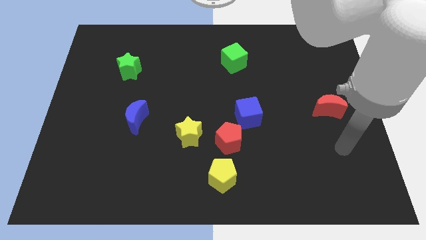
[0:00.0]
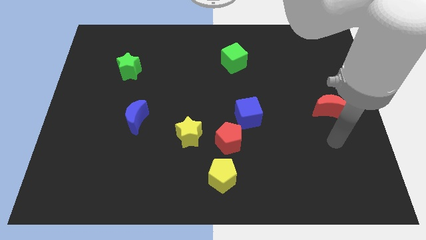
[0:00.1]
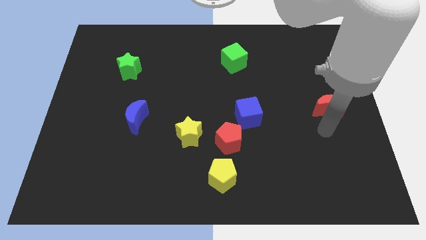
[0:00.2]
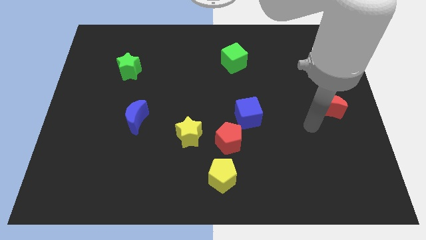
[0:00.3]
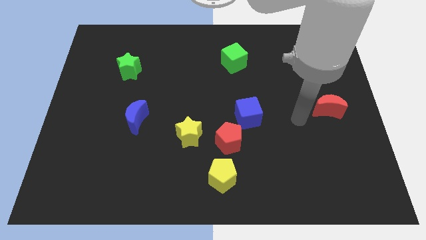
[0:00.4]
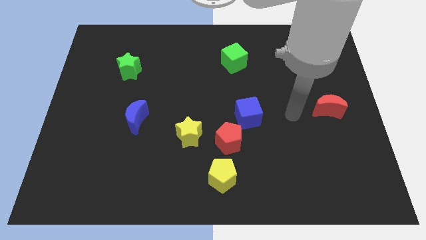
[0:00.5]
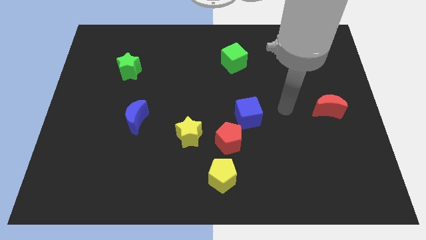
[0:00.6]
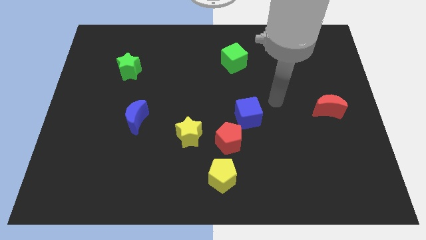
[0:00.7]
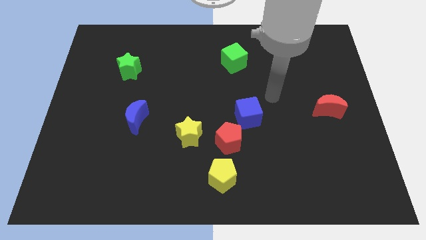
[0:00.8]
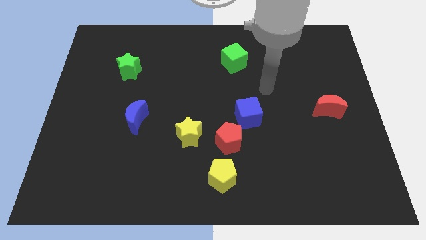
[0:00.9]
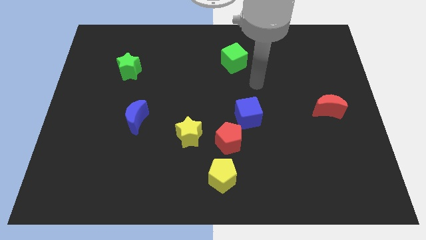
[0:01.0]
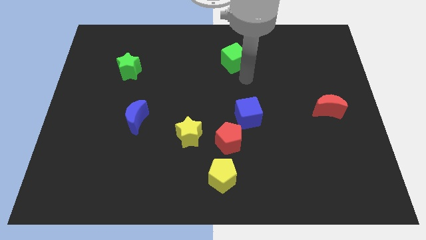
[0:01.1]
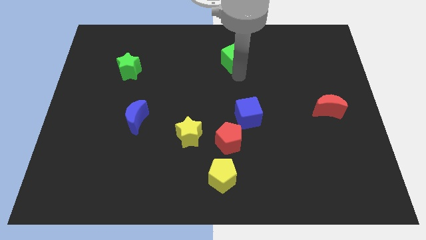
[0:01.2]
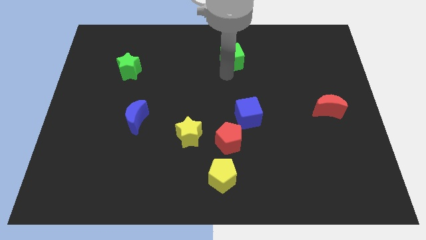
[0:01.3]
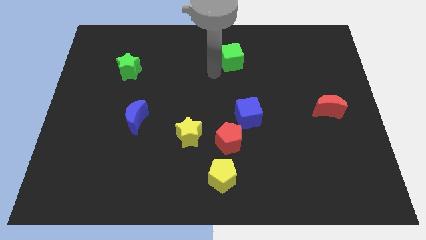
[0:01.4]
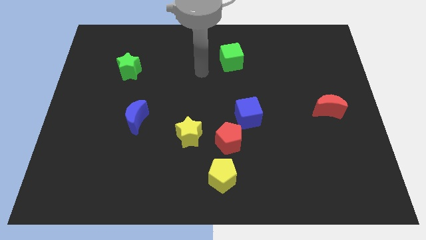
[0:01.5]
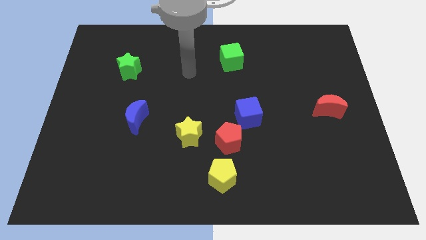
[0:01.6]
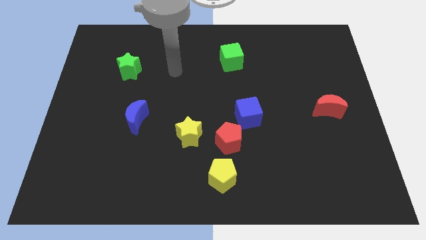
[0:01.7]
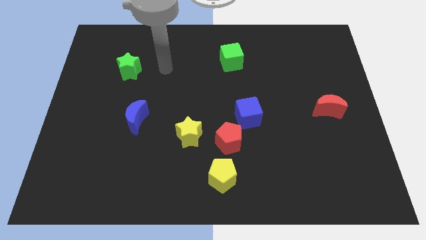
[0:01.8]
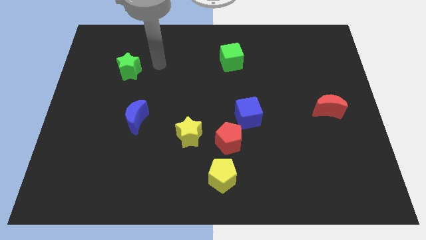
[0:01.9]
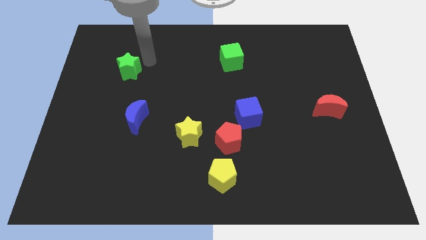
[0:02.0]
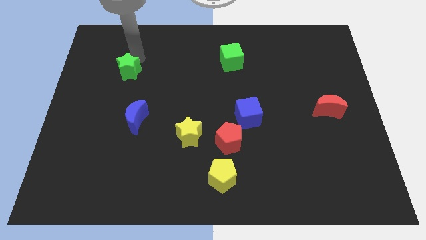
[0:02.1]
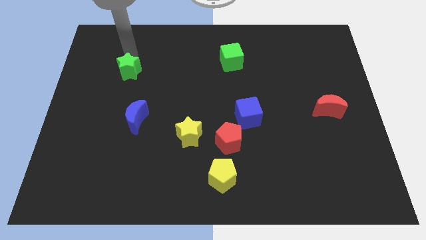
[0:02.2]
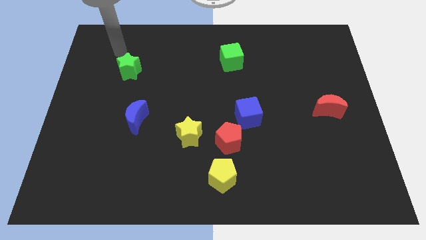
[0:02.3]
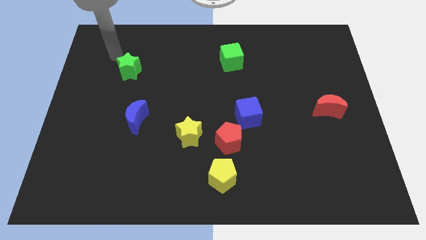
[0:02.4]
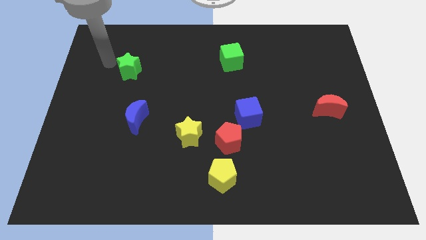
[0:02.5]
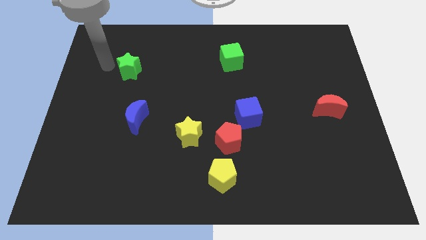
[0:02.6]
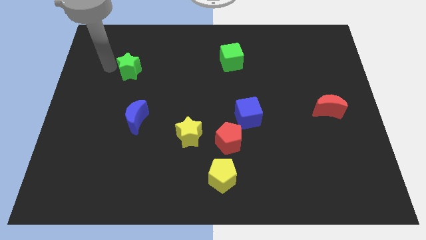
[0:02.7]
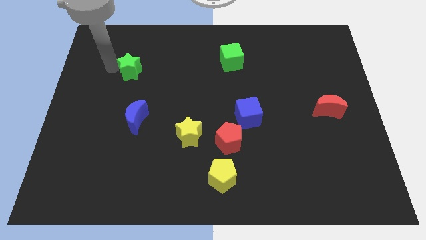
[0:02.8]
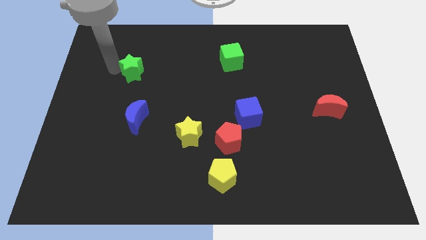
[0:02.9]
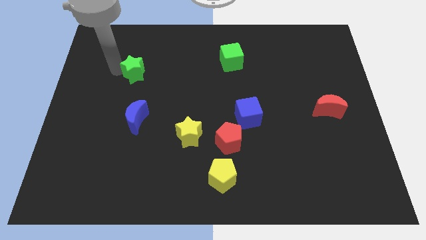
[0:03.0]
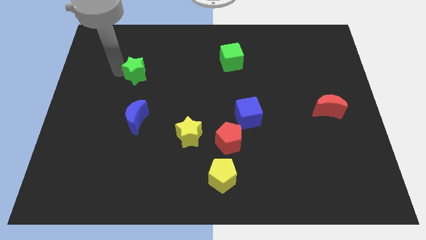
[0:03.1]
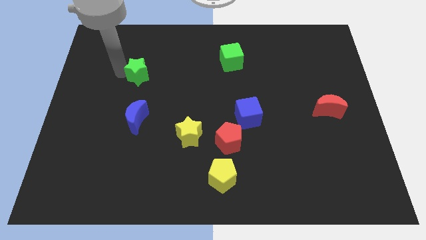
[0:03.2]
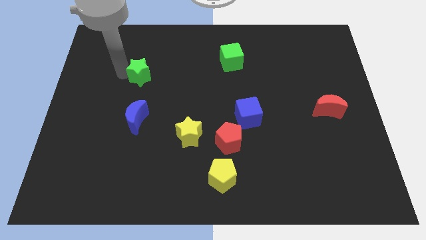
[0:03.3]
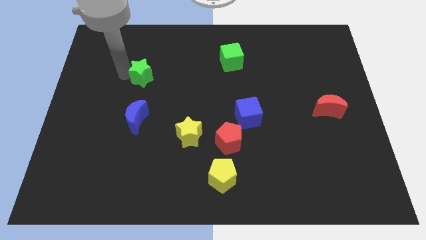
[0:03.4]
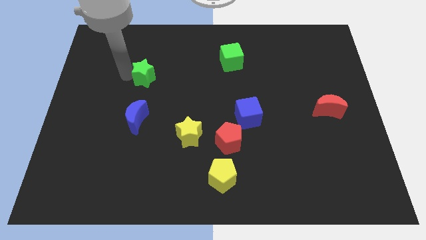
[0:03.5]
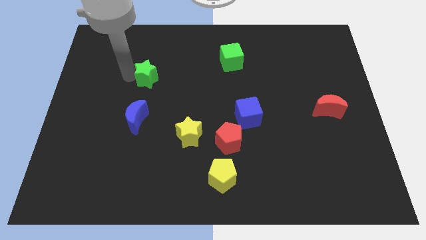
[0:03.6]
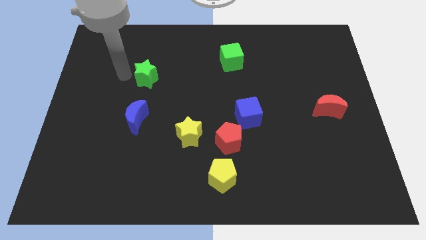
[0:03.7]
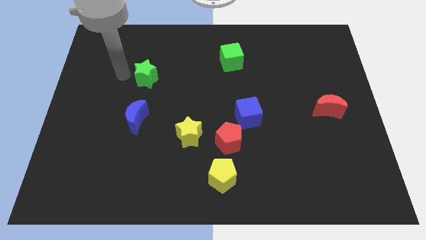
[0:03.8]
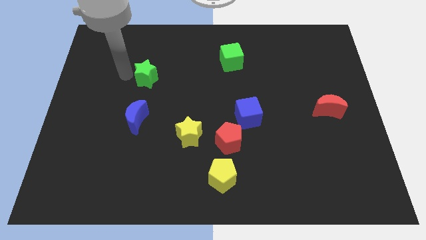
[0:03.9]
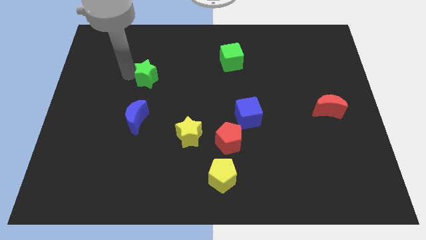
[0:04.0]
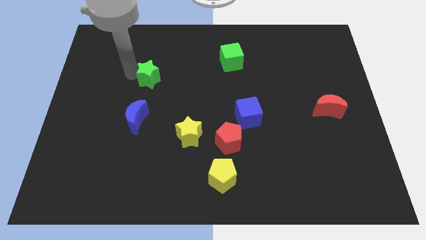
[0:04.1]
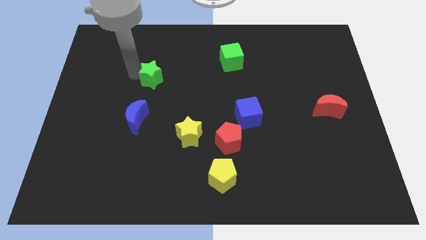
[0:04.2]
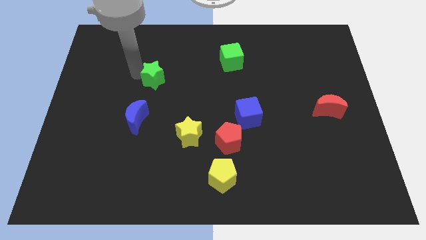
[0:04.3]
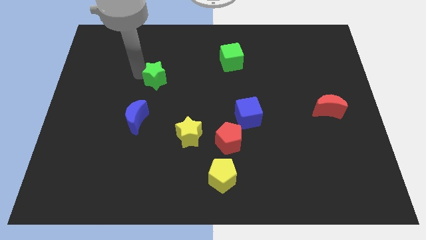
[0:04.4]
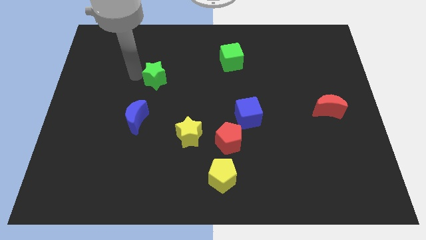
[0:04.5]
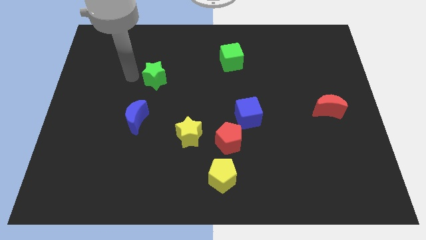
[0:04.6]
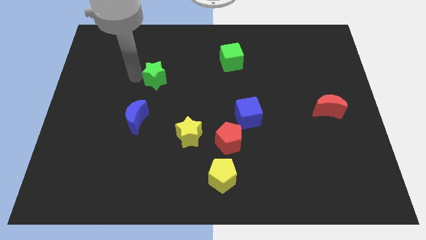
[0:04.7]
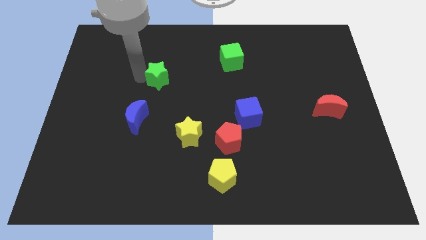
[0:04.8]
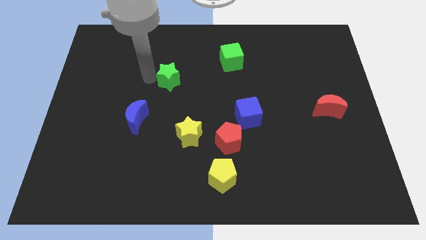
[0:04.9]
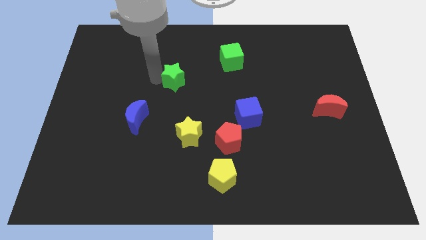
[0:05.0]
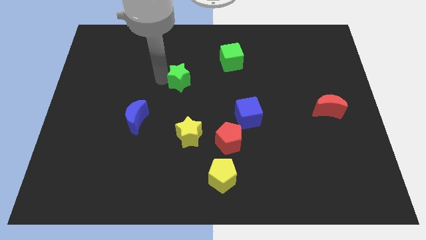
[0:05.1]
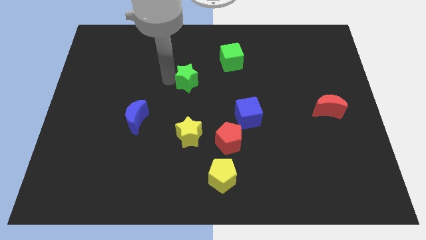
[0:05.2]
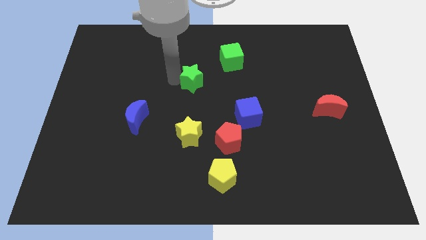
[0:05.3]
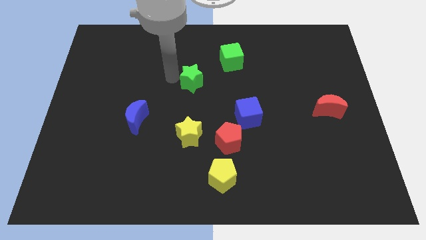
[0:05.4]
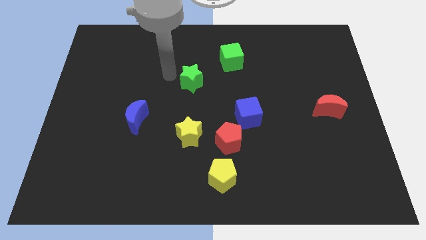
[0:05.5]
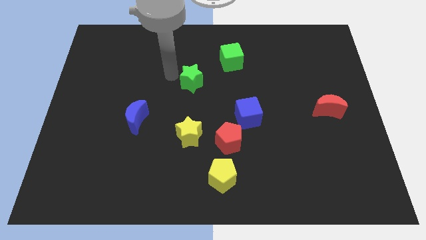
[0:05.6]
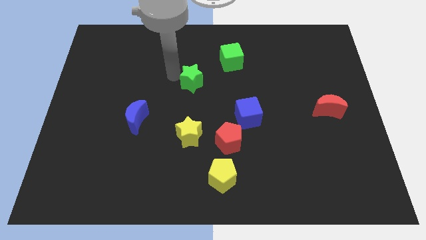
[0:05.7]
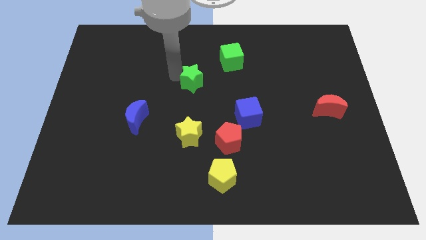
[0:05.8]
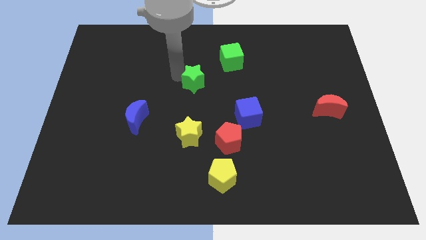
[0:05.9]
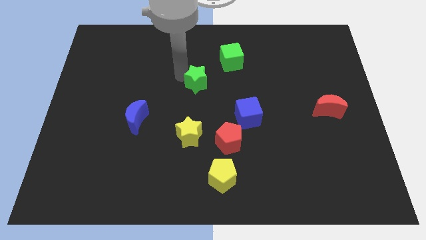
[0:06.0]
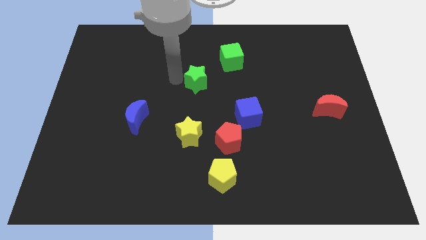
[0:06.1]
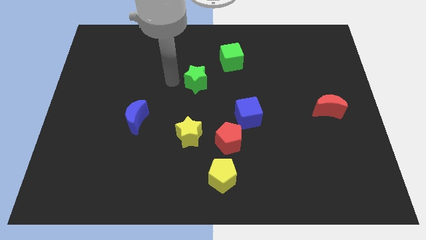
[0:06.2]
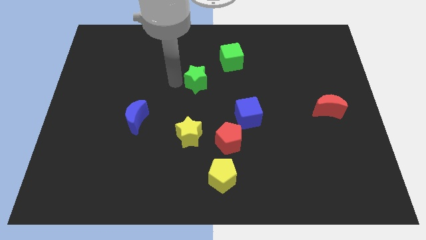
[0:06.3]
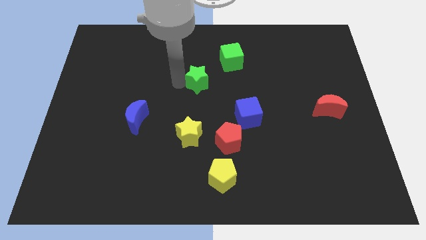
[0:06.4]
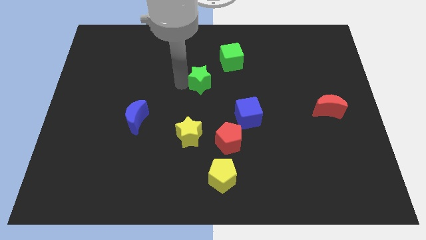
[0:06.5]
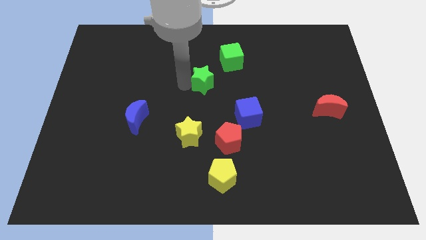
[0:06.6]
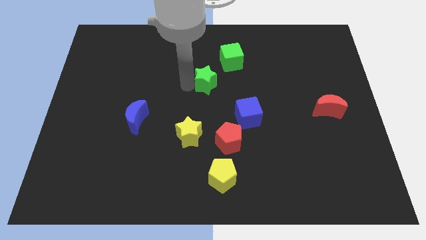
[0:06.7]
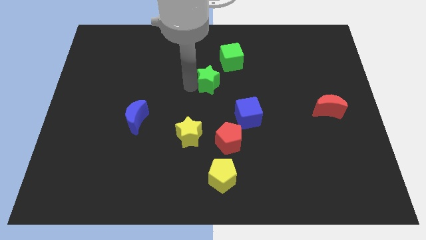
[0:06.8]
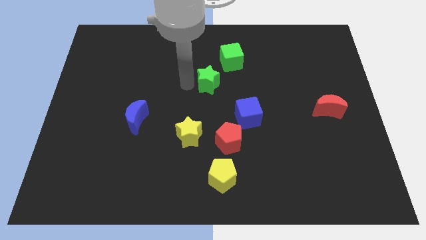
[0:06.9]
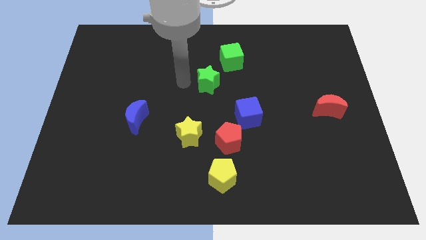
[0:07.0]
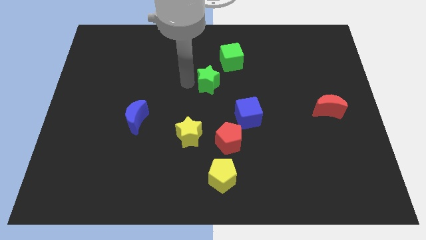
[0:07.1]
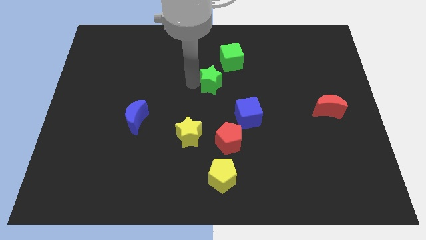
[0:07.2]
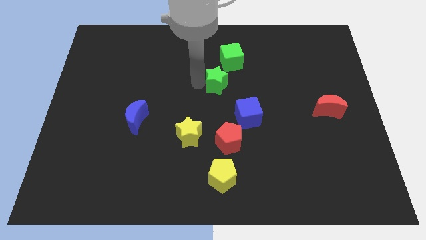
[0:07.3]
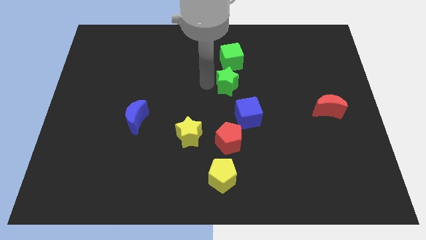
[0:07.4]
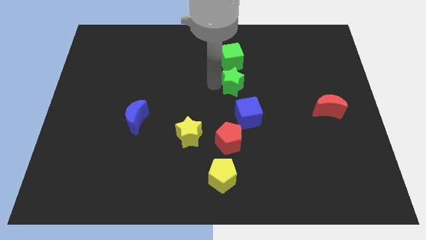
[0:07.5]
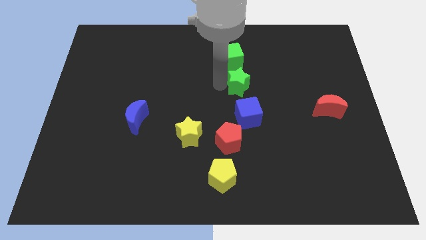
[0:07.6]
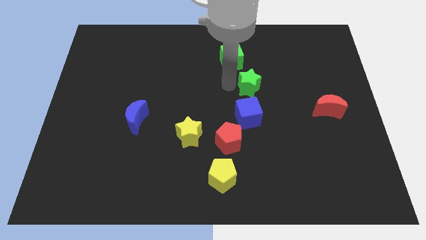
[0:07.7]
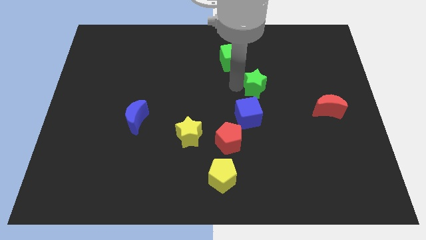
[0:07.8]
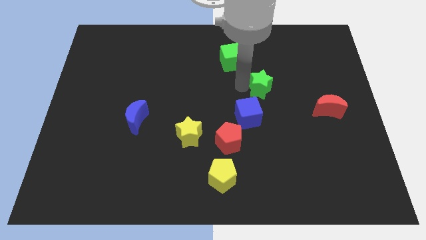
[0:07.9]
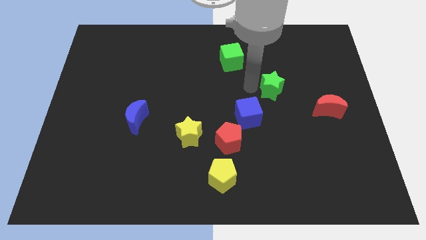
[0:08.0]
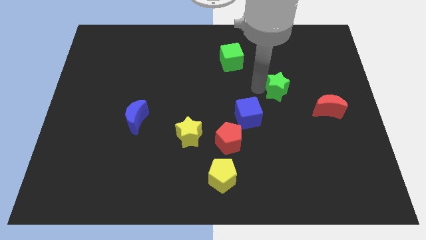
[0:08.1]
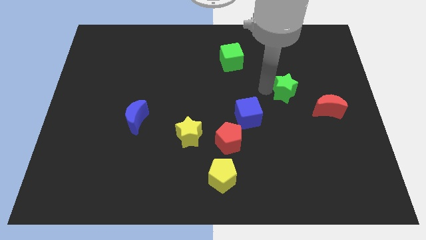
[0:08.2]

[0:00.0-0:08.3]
slide the green star to the top left side of the red moon
